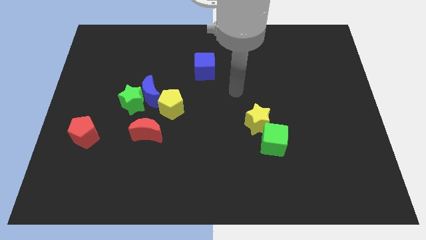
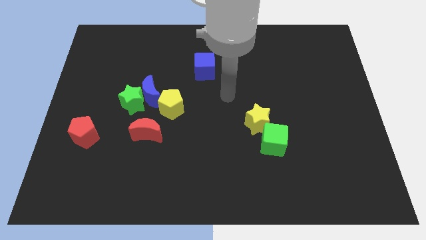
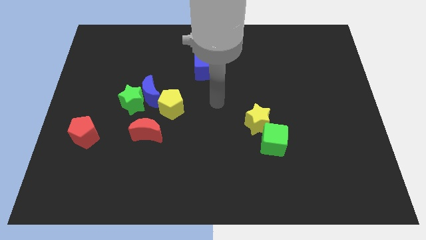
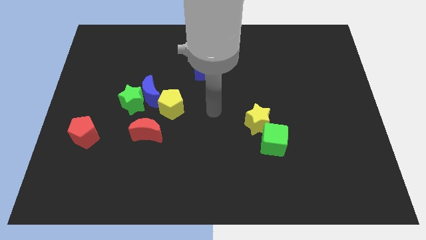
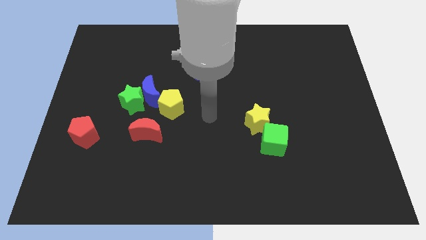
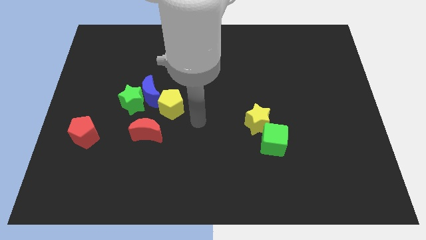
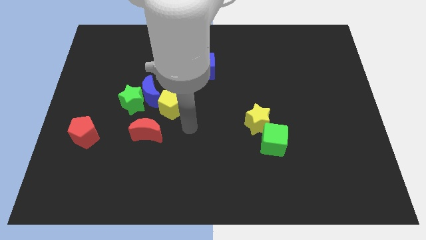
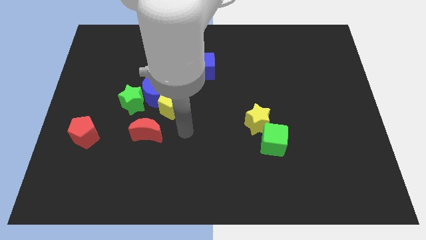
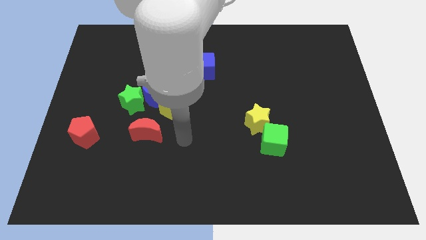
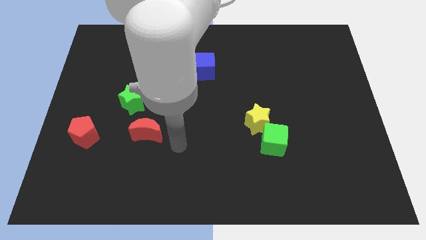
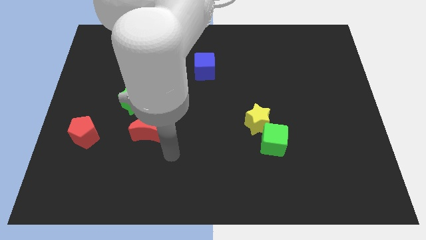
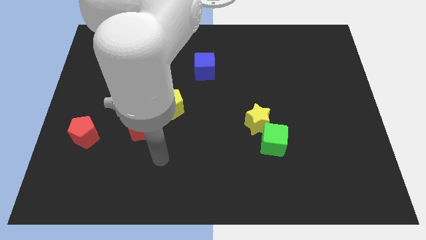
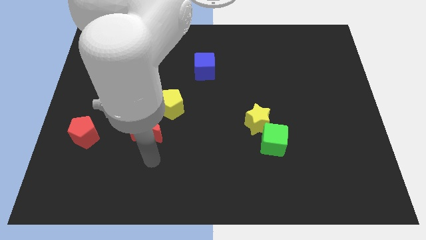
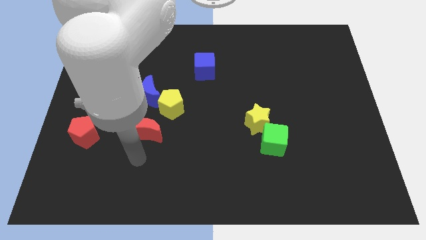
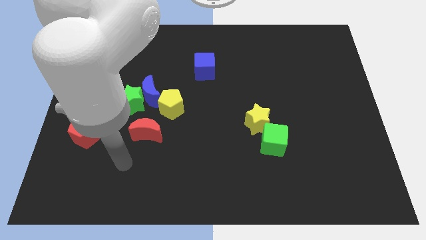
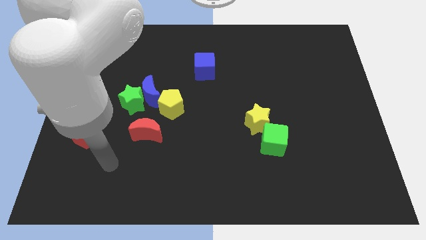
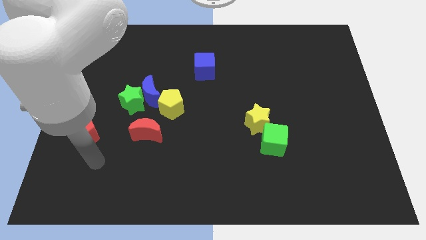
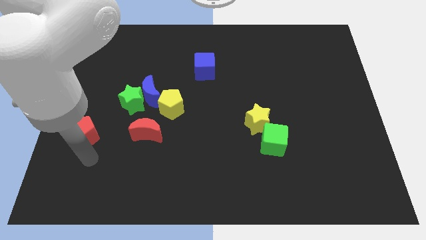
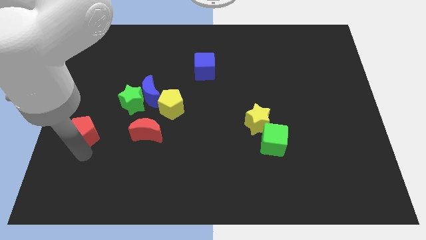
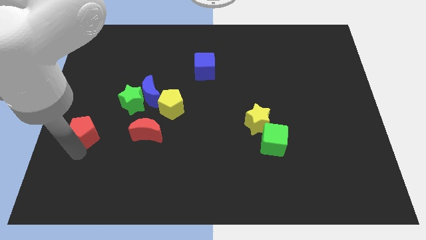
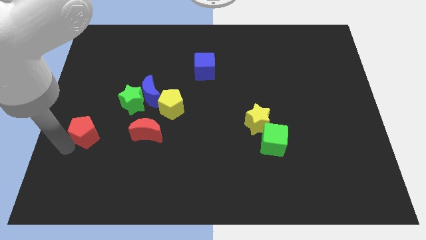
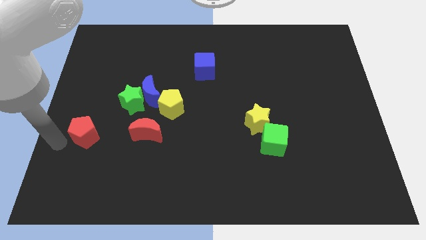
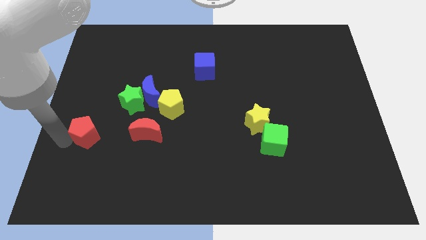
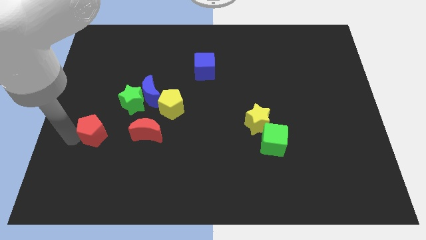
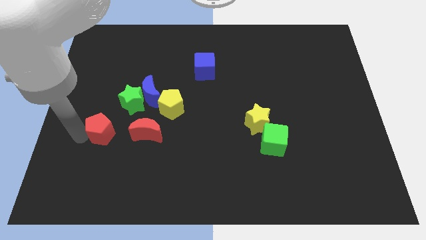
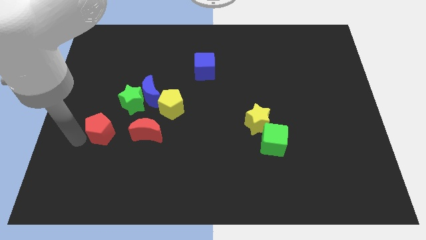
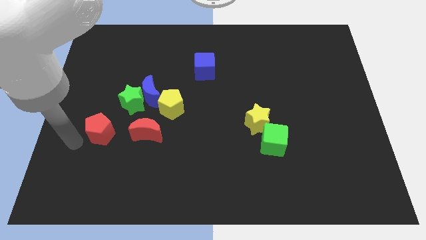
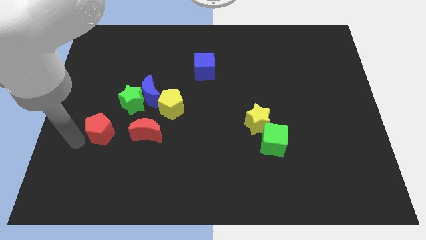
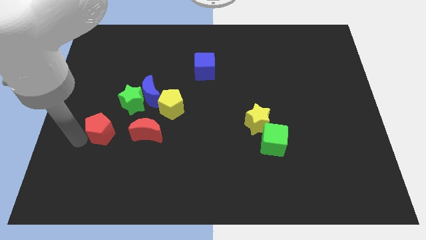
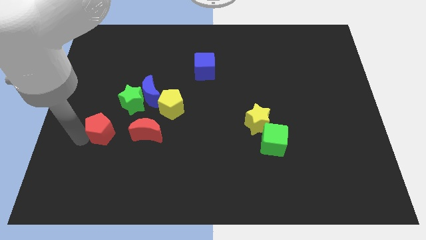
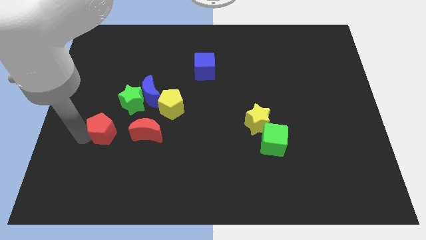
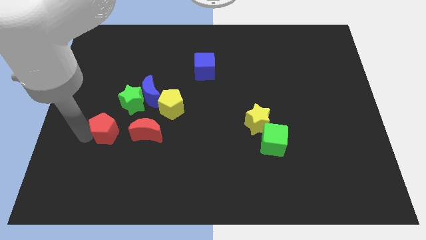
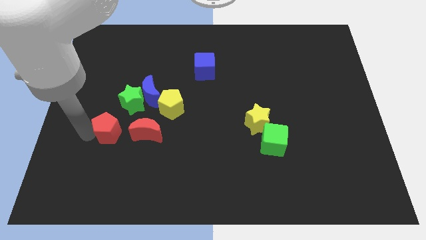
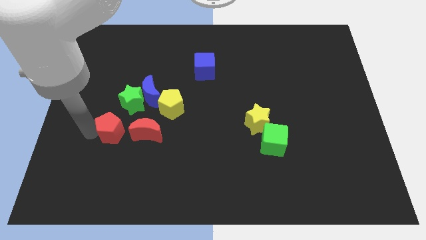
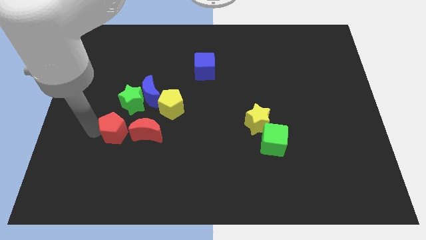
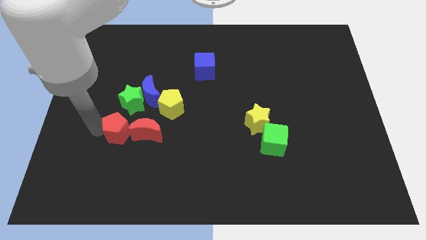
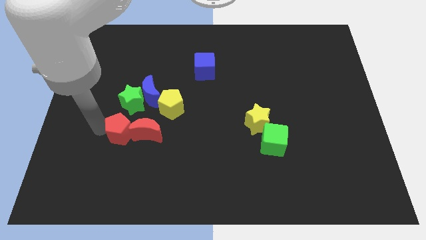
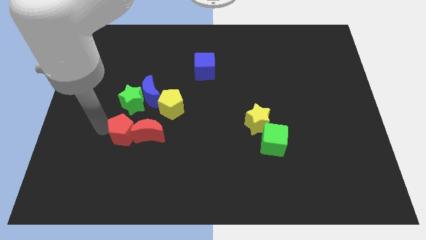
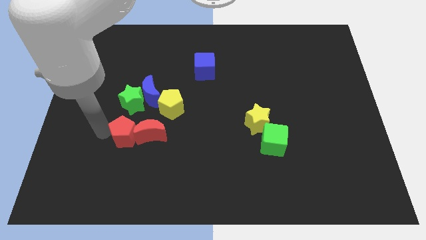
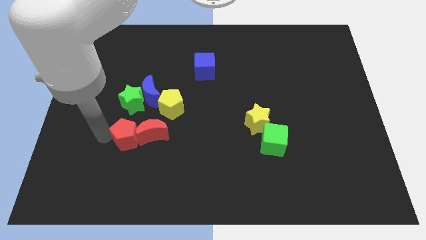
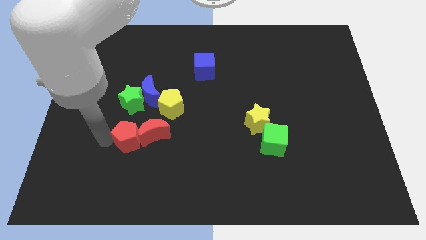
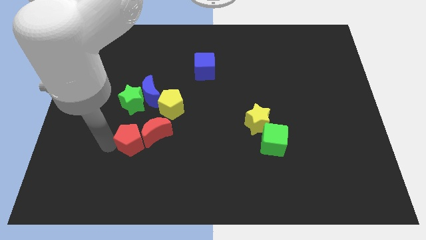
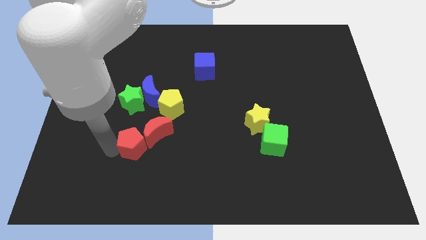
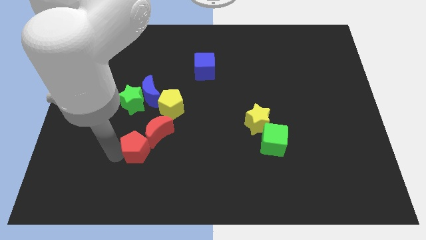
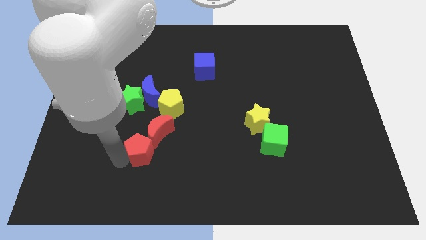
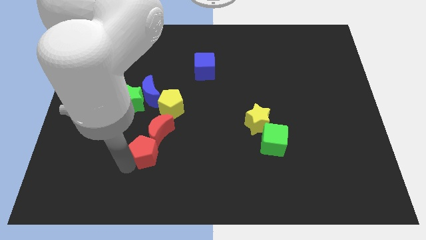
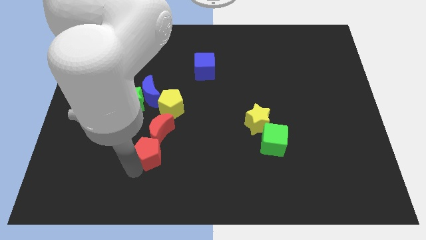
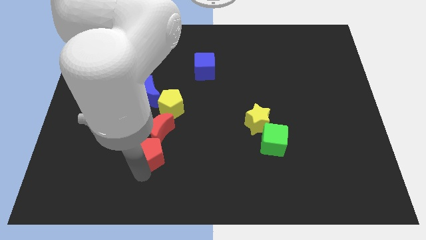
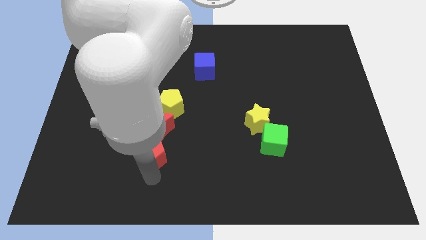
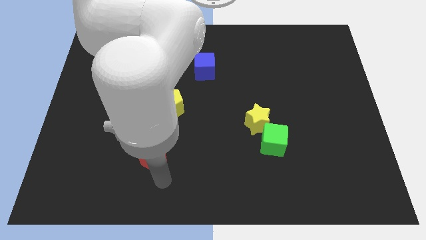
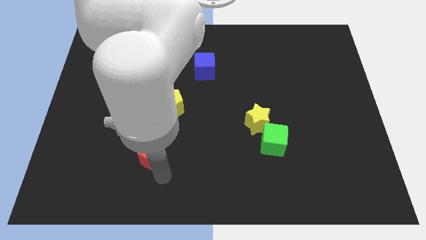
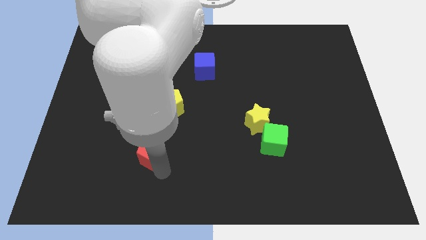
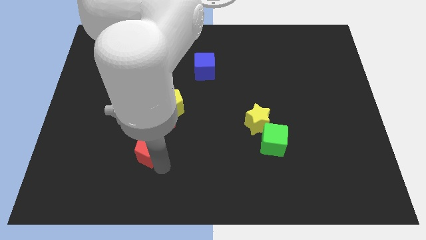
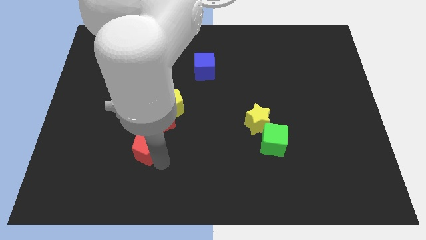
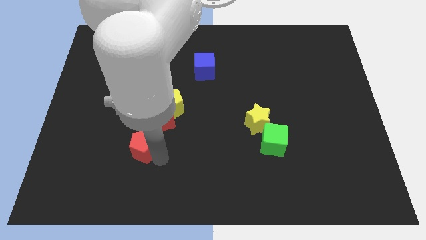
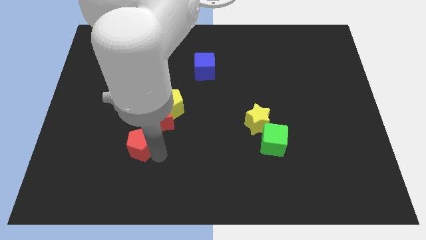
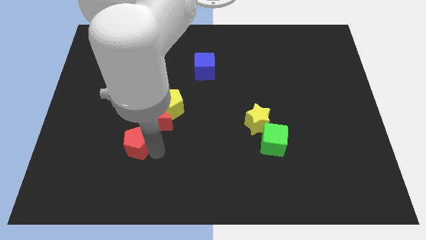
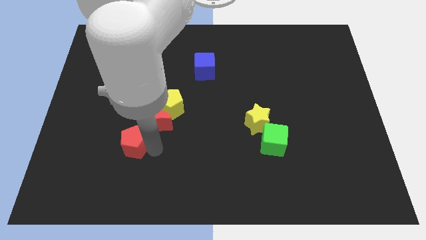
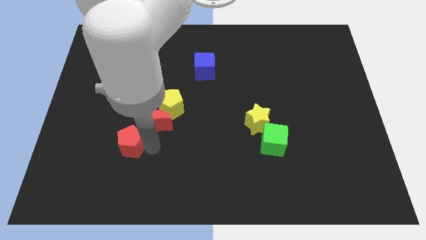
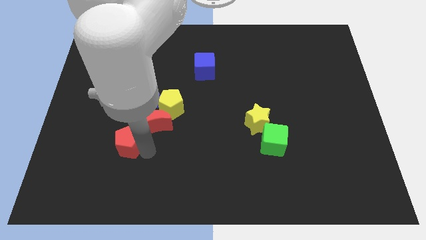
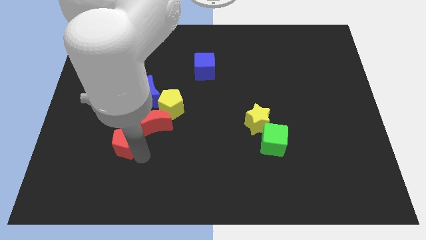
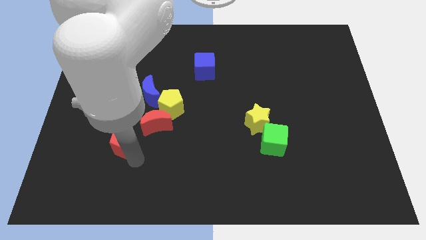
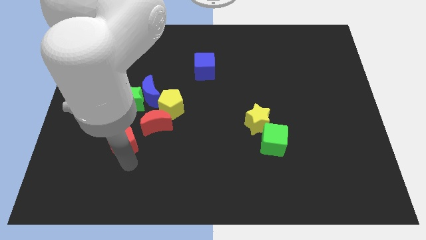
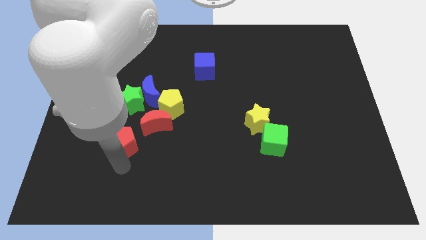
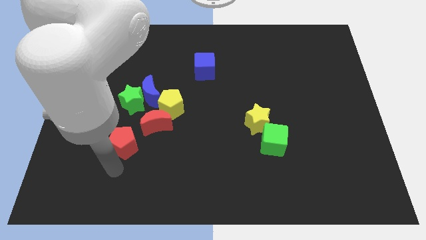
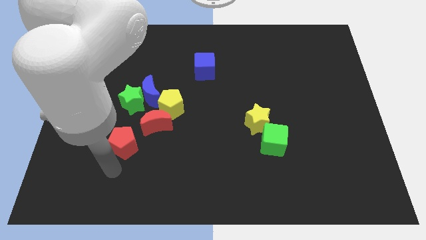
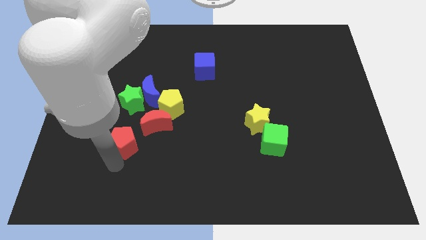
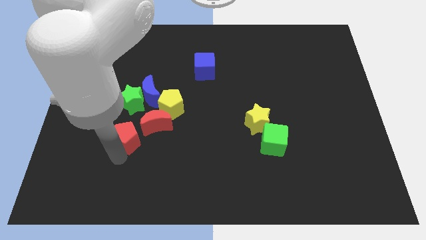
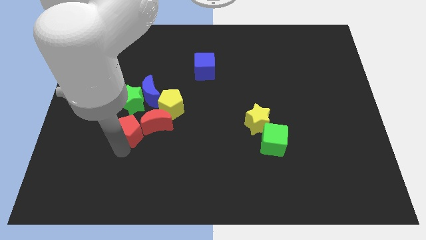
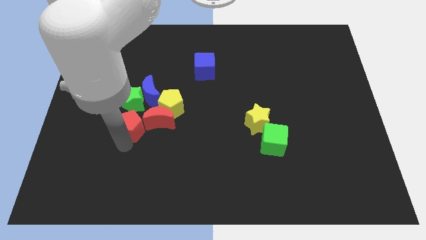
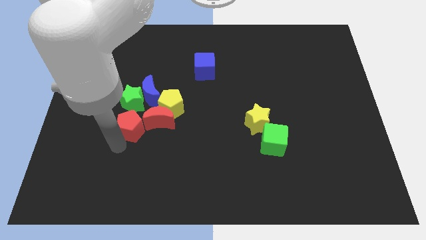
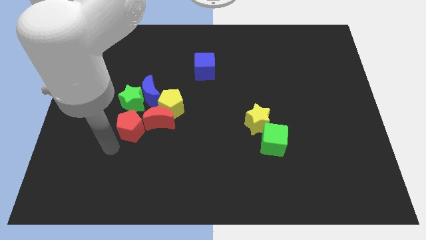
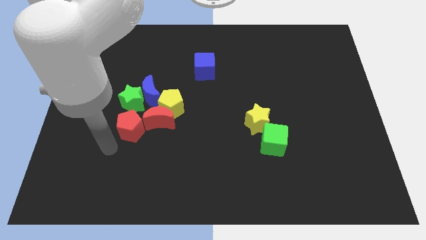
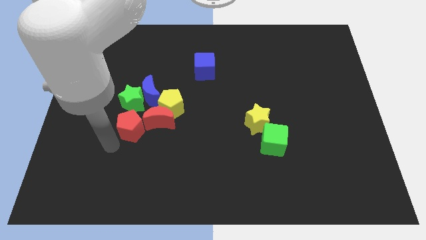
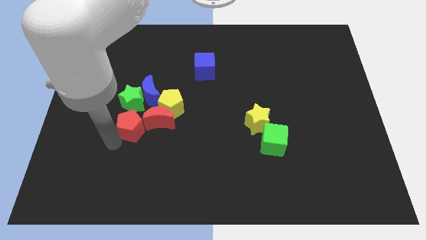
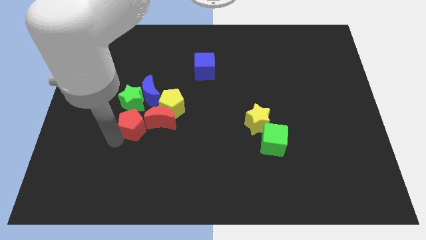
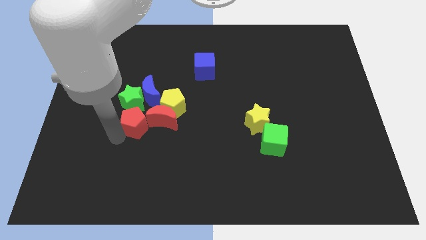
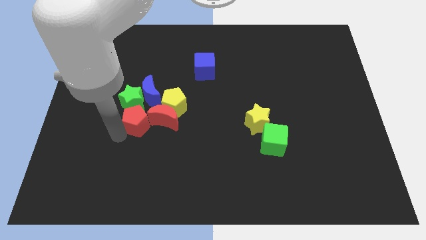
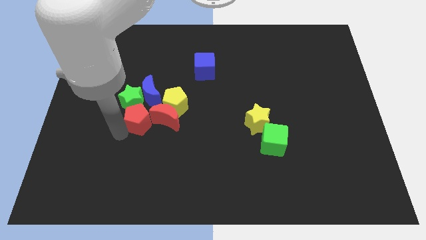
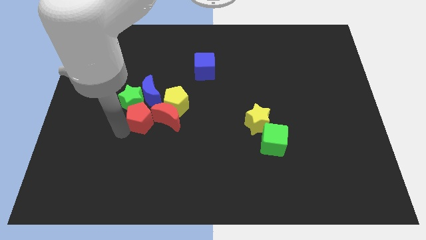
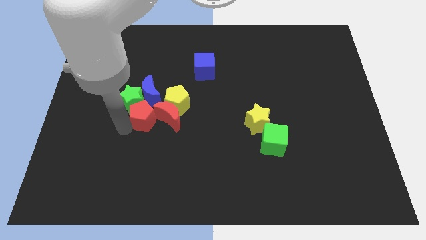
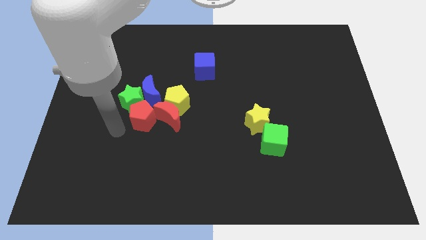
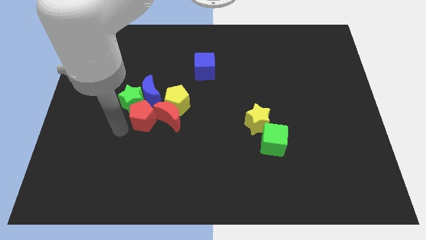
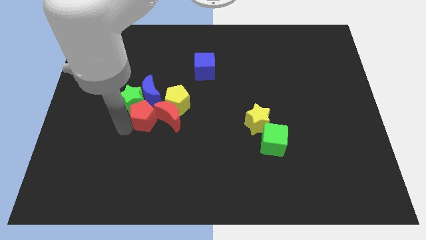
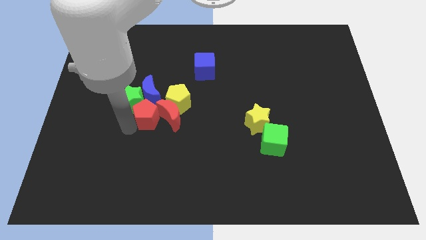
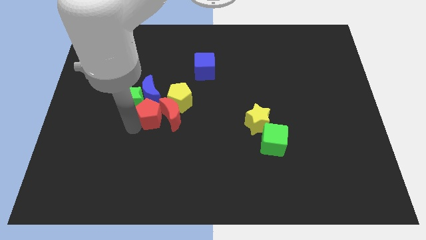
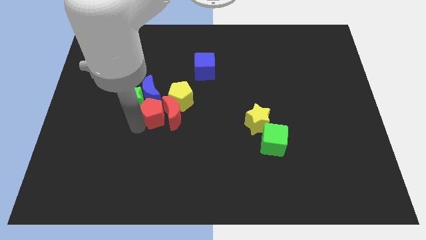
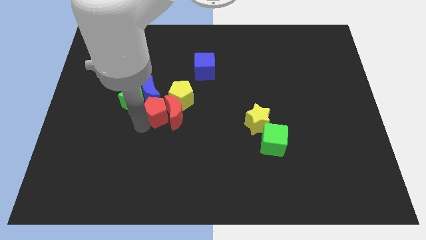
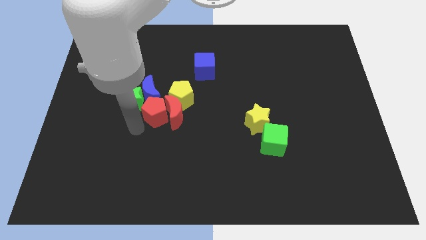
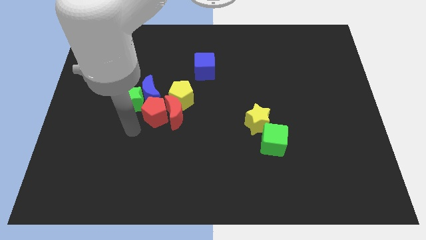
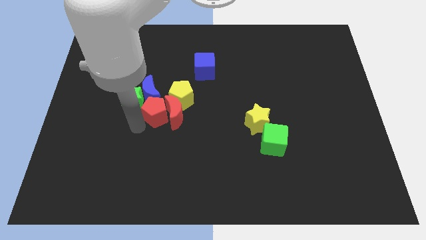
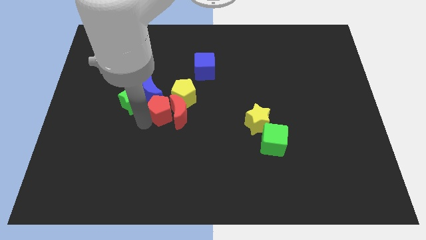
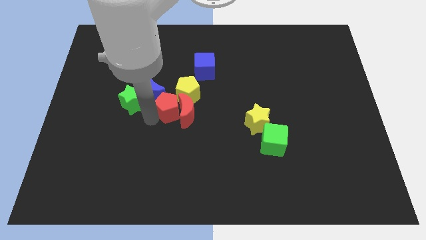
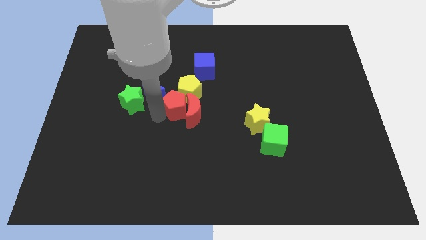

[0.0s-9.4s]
push the red pentagon towards the yellow pentagon
